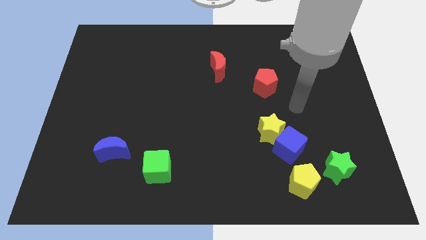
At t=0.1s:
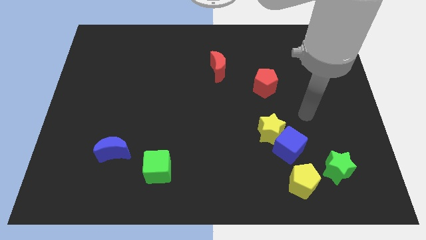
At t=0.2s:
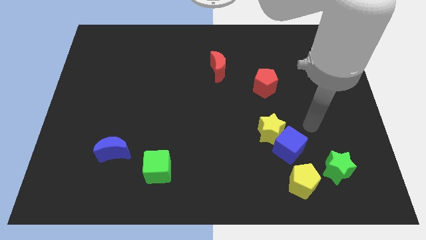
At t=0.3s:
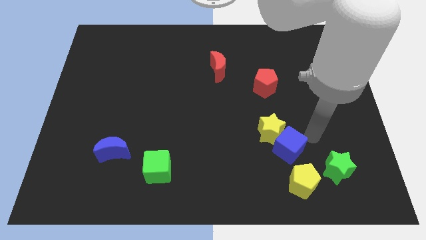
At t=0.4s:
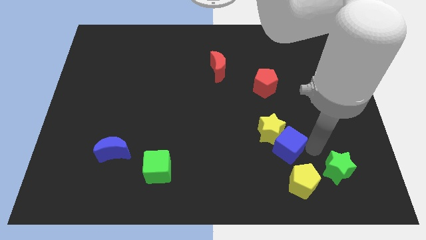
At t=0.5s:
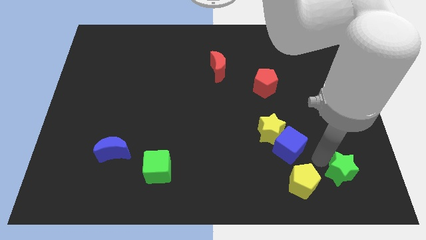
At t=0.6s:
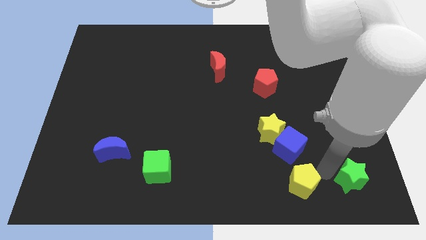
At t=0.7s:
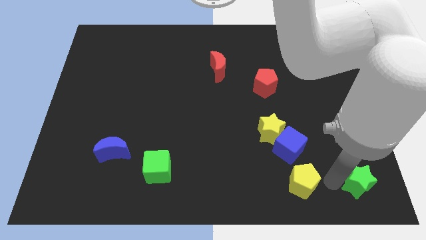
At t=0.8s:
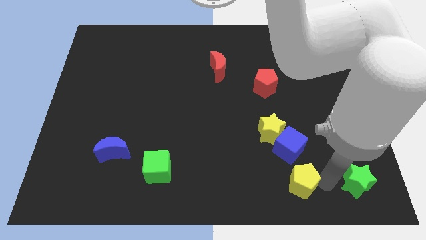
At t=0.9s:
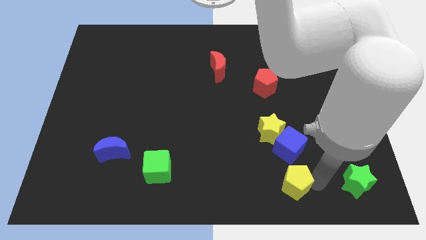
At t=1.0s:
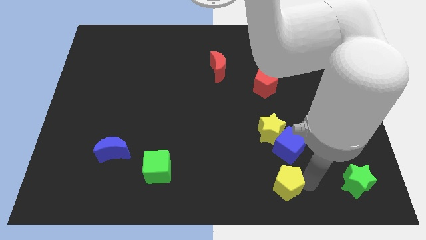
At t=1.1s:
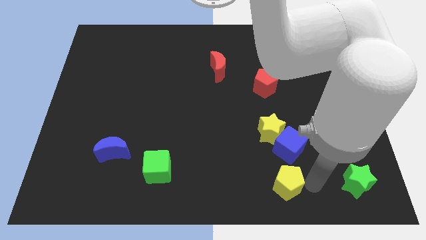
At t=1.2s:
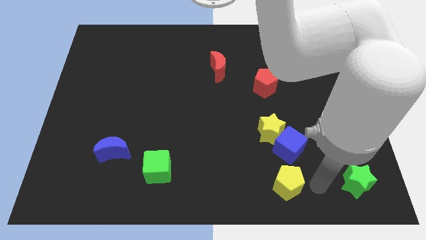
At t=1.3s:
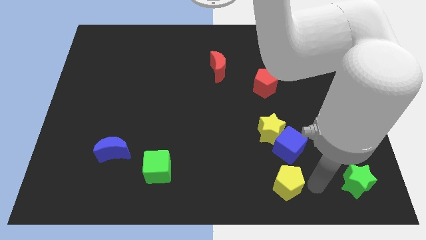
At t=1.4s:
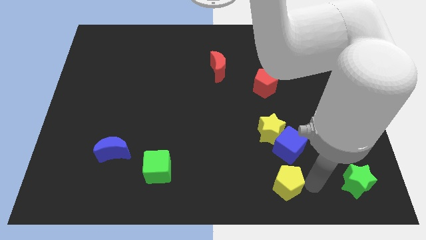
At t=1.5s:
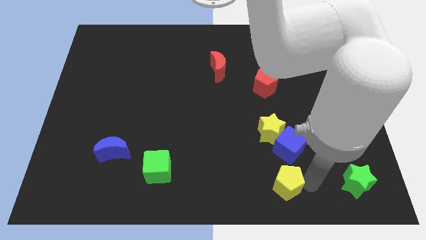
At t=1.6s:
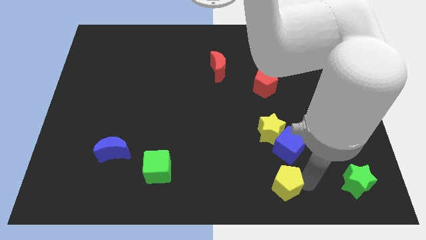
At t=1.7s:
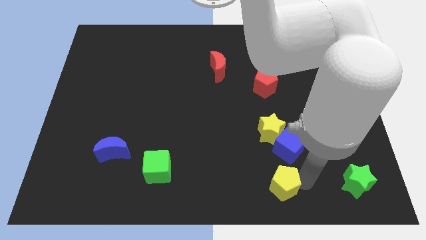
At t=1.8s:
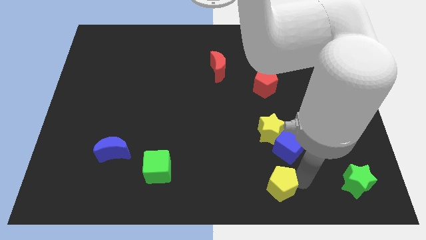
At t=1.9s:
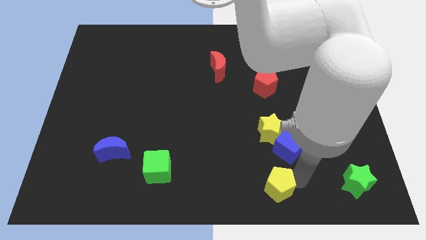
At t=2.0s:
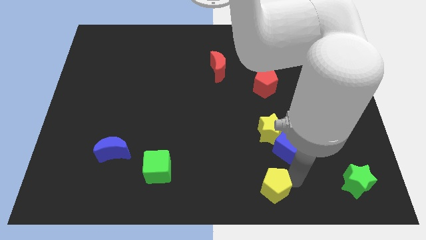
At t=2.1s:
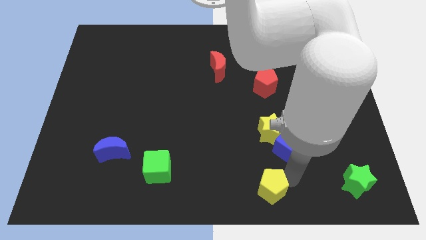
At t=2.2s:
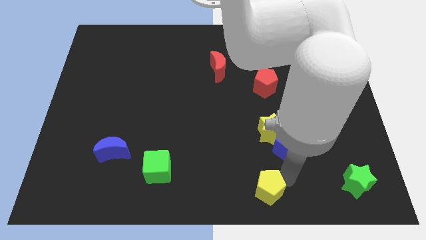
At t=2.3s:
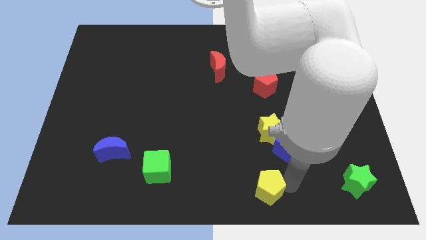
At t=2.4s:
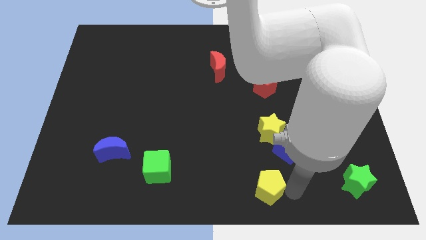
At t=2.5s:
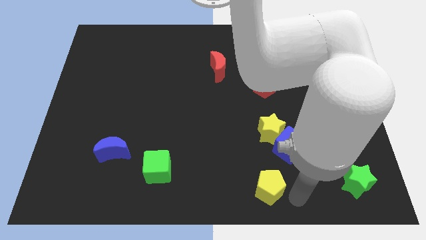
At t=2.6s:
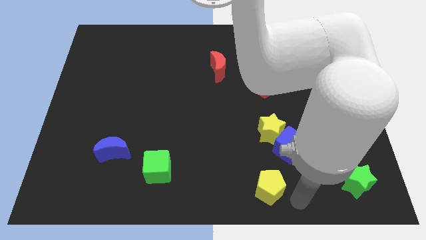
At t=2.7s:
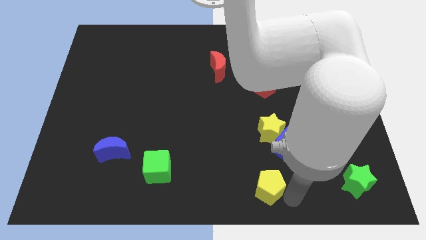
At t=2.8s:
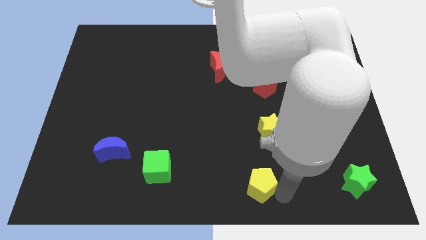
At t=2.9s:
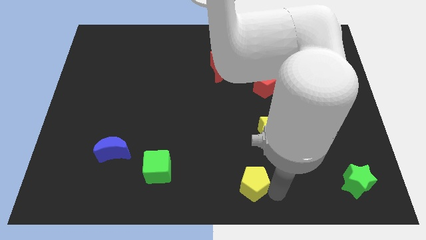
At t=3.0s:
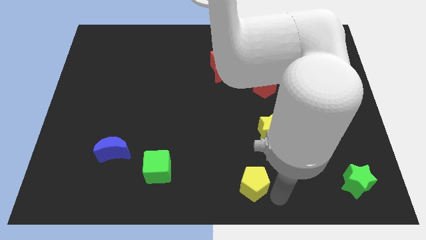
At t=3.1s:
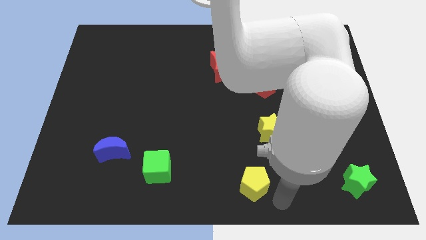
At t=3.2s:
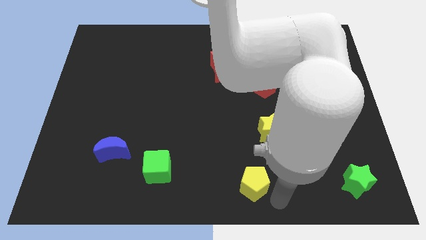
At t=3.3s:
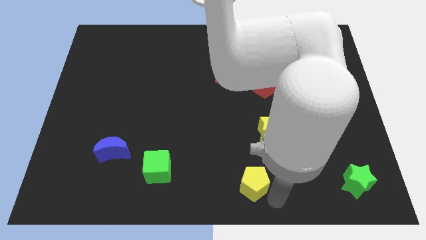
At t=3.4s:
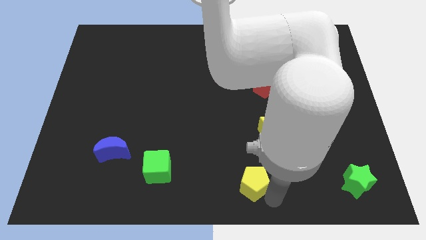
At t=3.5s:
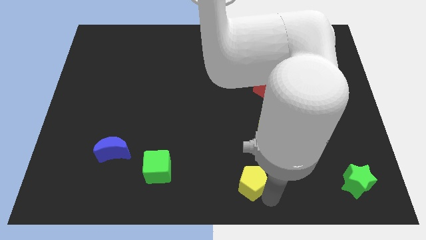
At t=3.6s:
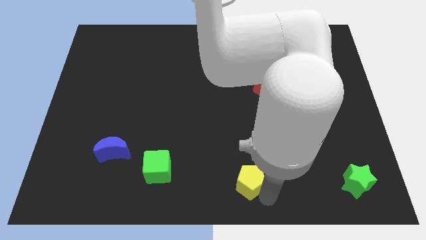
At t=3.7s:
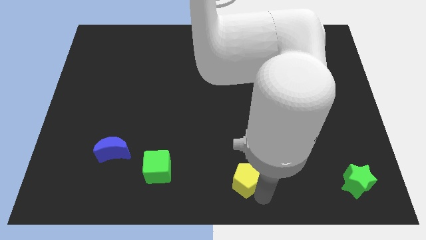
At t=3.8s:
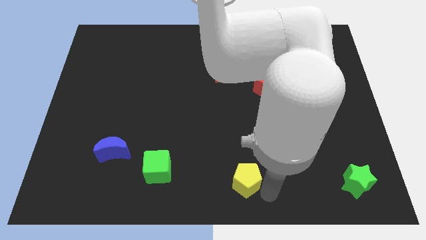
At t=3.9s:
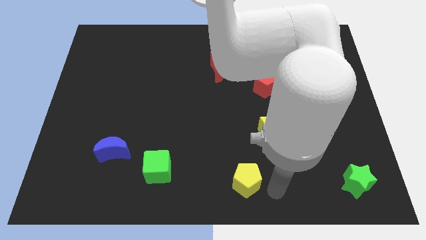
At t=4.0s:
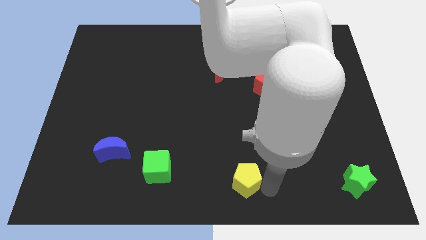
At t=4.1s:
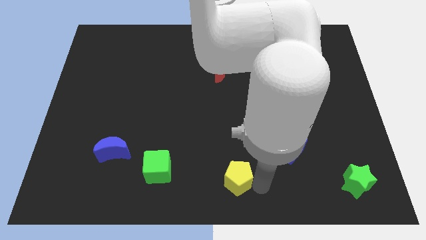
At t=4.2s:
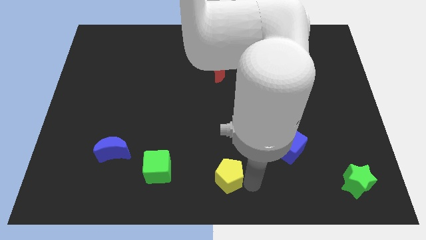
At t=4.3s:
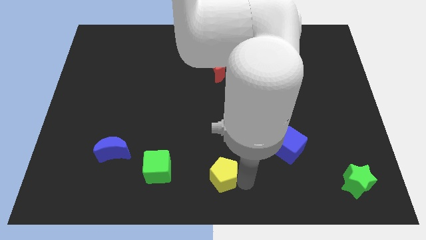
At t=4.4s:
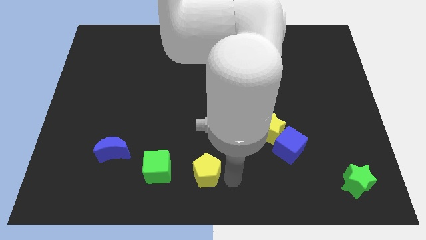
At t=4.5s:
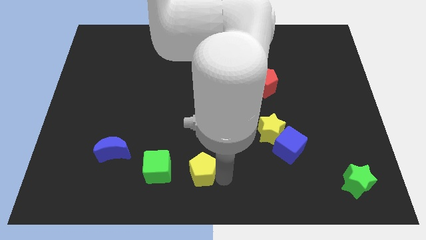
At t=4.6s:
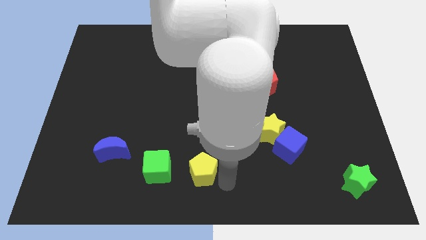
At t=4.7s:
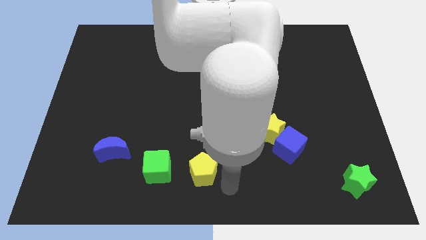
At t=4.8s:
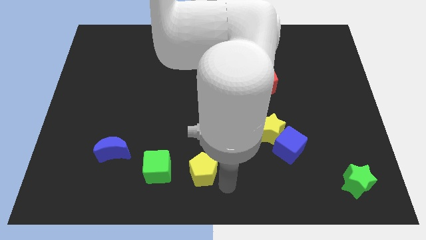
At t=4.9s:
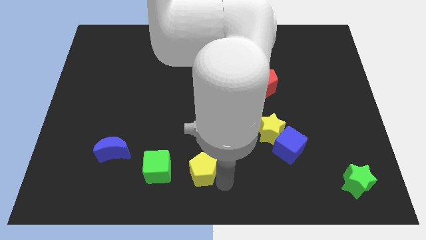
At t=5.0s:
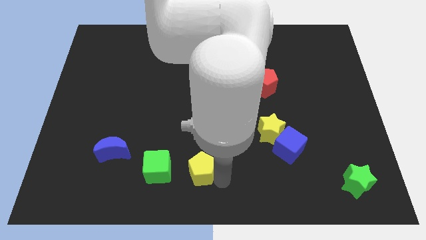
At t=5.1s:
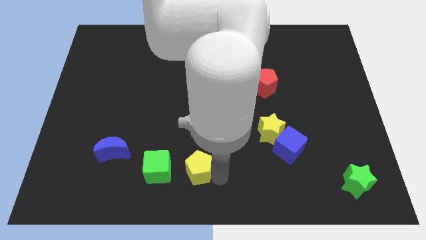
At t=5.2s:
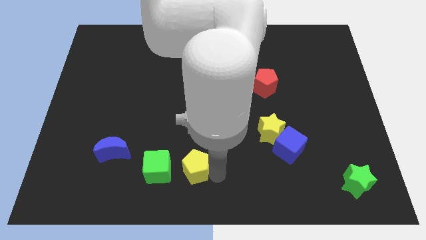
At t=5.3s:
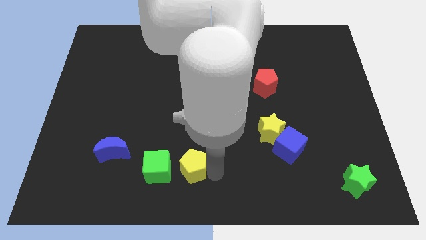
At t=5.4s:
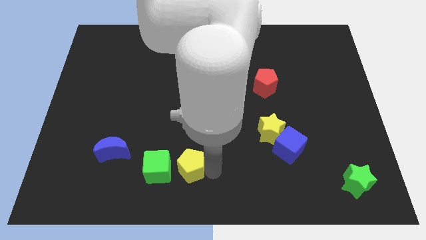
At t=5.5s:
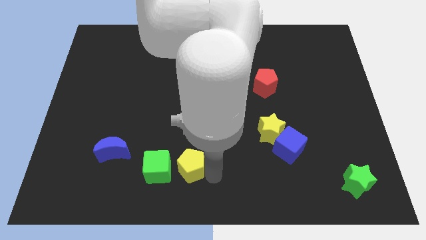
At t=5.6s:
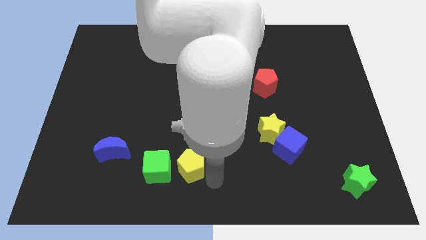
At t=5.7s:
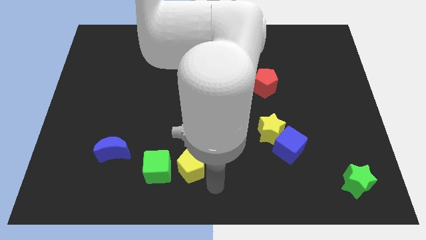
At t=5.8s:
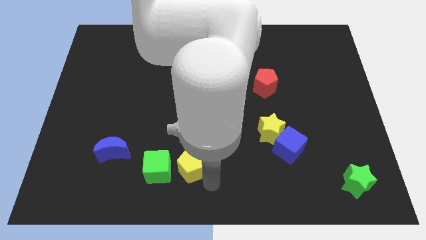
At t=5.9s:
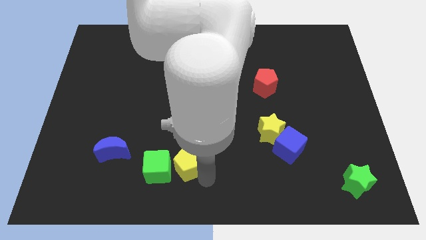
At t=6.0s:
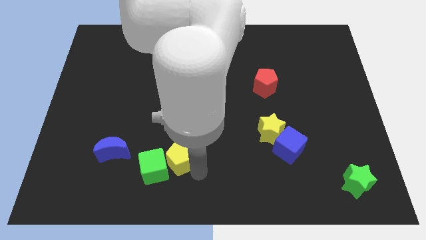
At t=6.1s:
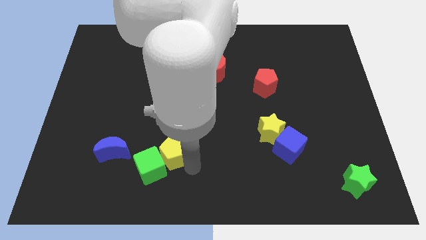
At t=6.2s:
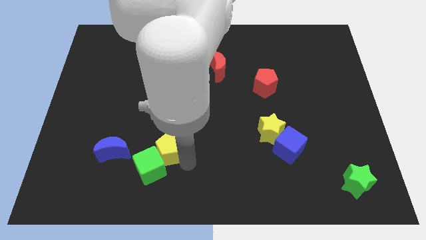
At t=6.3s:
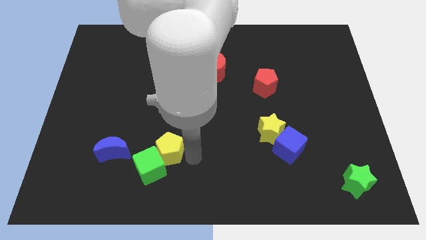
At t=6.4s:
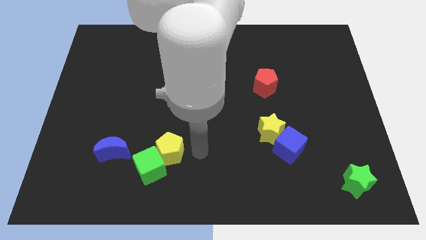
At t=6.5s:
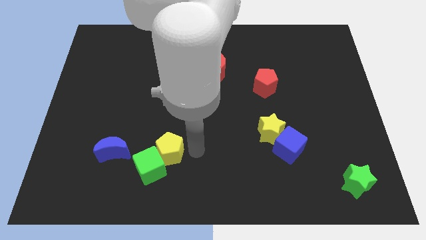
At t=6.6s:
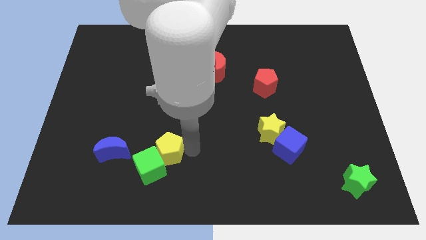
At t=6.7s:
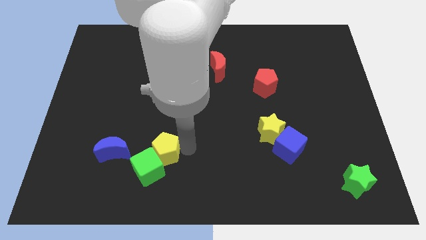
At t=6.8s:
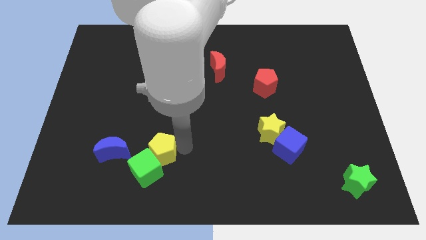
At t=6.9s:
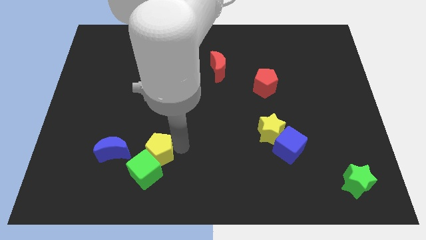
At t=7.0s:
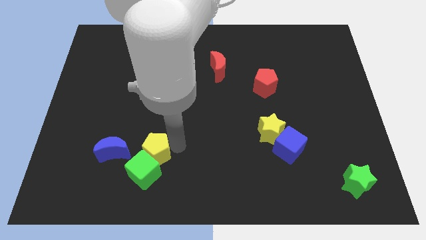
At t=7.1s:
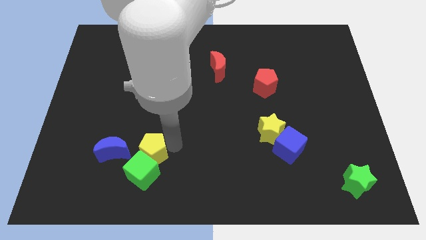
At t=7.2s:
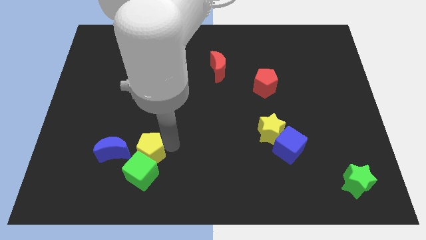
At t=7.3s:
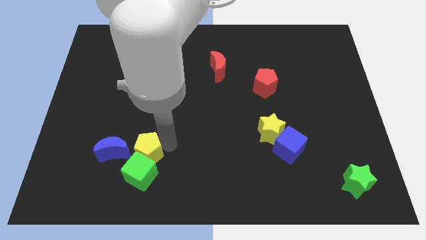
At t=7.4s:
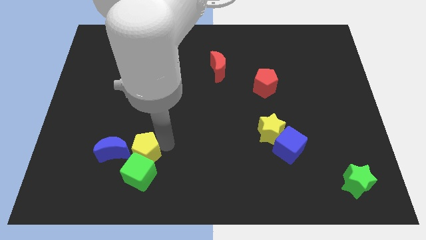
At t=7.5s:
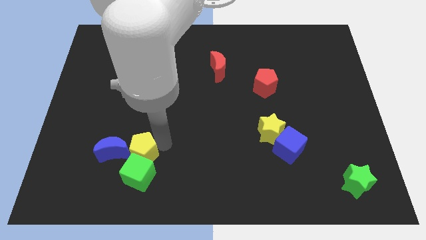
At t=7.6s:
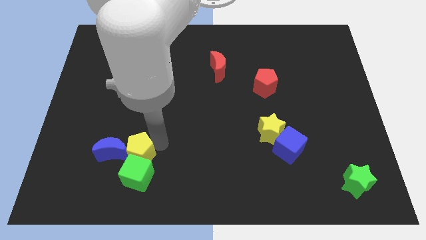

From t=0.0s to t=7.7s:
push the yellow pentagon towards the blue moon
